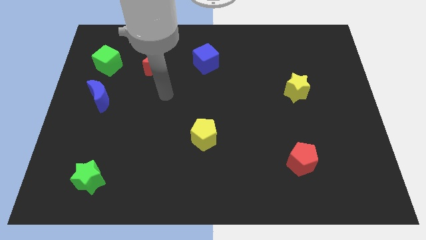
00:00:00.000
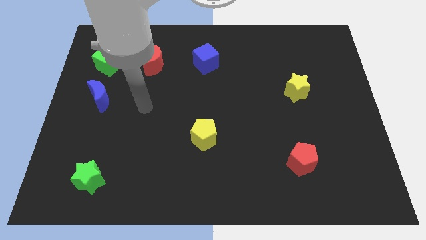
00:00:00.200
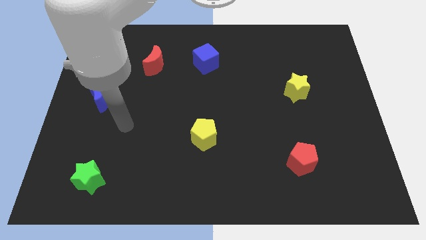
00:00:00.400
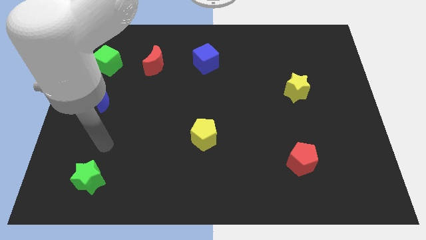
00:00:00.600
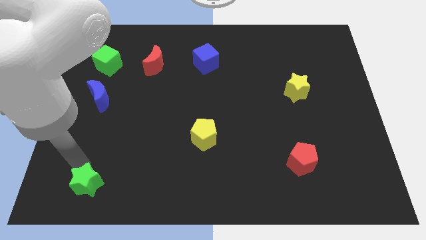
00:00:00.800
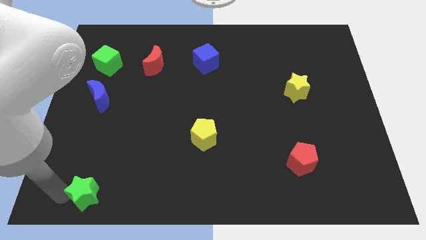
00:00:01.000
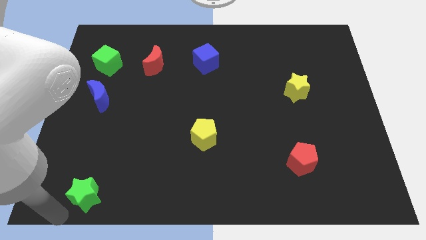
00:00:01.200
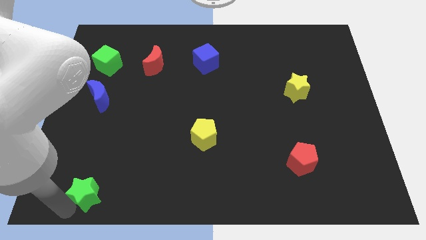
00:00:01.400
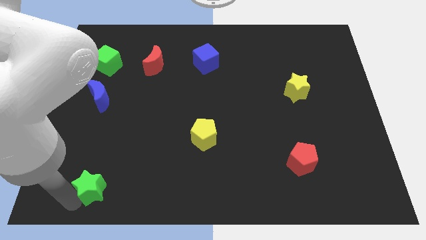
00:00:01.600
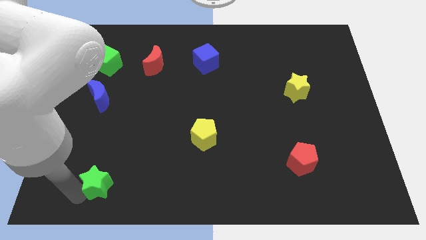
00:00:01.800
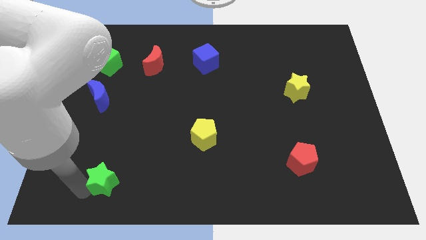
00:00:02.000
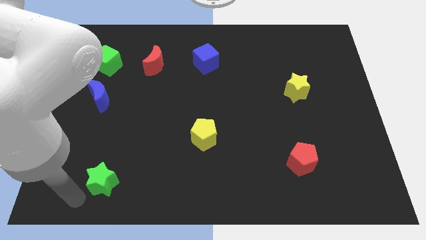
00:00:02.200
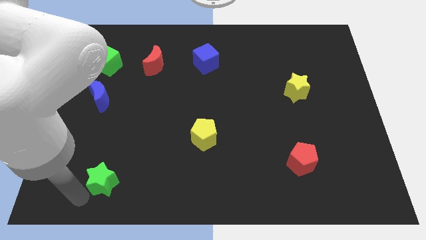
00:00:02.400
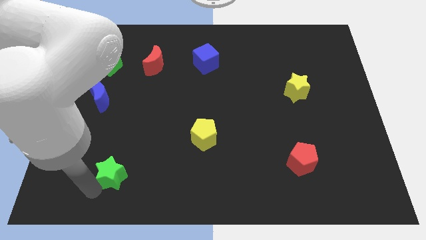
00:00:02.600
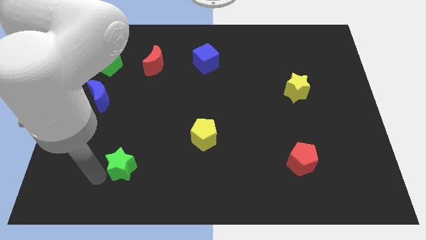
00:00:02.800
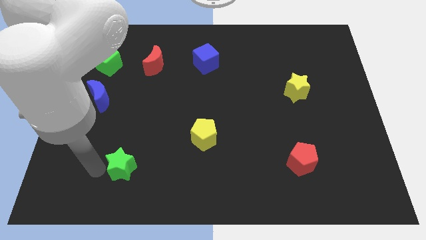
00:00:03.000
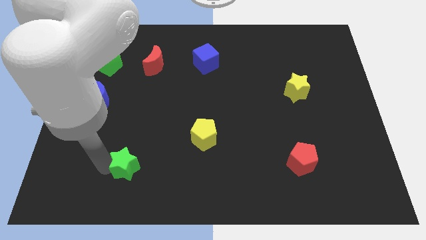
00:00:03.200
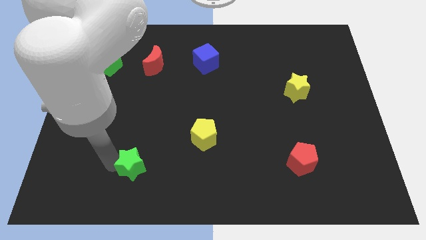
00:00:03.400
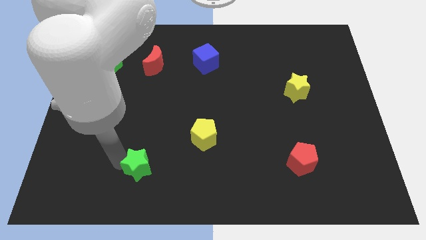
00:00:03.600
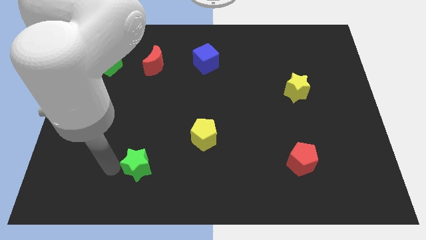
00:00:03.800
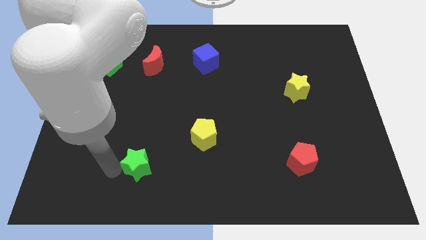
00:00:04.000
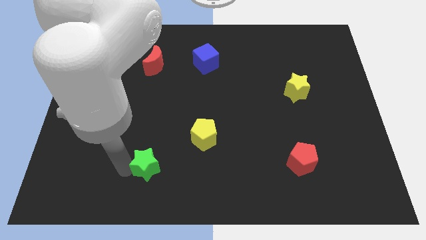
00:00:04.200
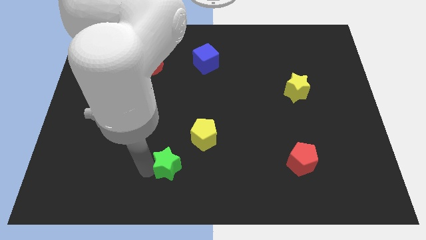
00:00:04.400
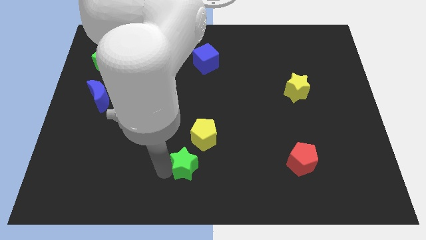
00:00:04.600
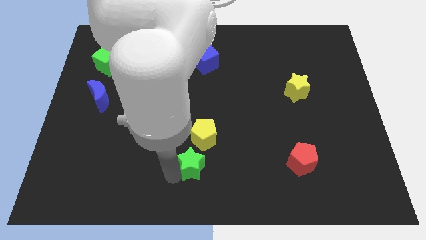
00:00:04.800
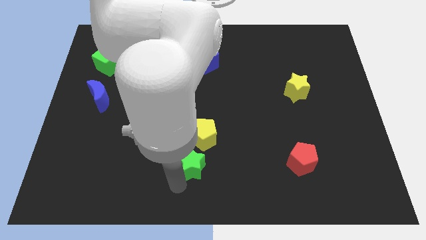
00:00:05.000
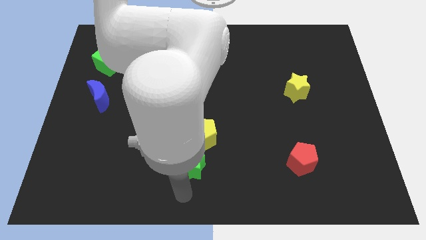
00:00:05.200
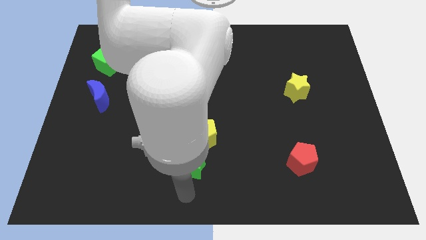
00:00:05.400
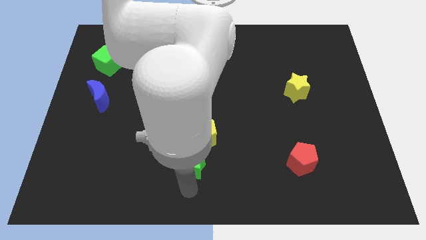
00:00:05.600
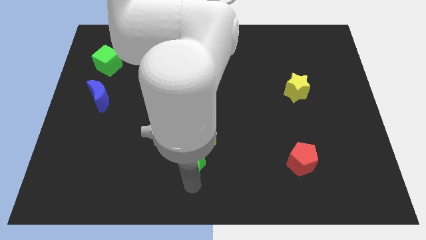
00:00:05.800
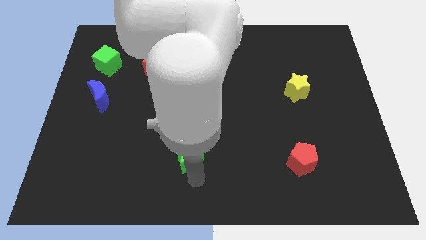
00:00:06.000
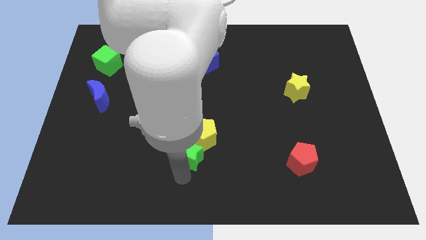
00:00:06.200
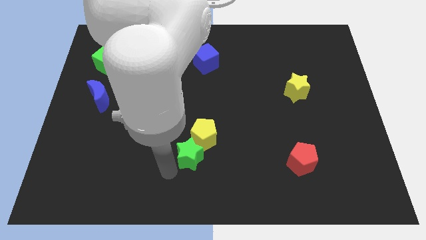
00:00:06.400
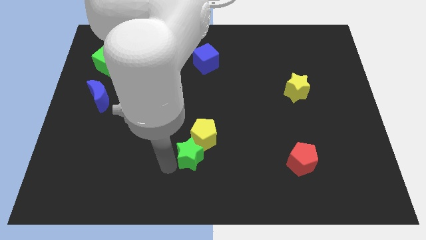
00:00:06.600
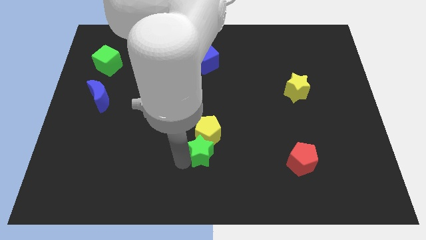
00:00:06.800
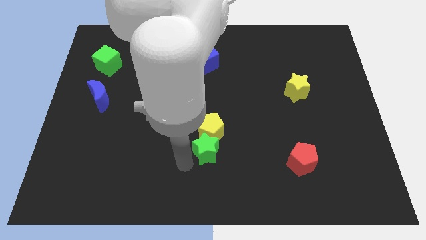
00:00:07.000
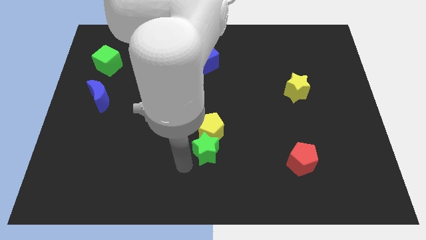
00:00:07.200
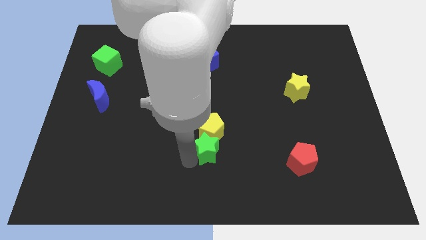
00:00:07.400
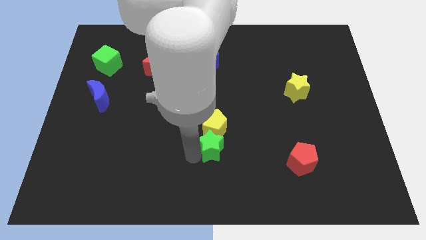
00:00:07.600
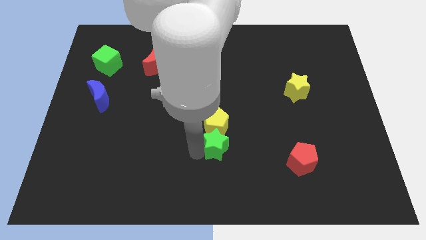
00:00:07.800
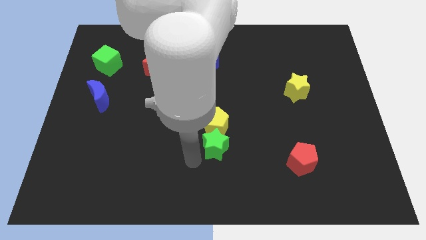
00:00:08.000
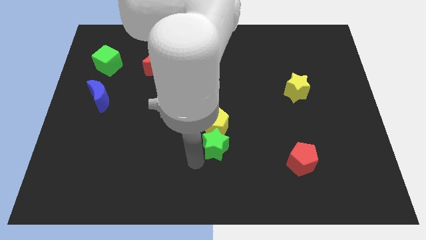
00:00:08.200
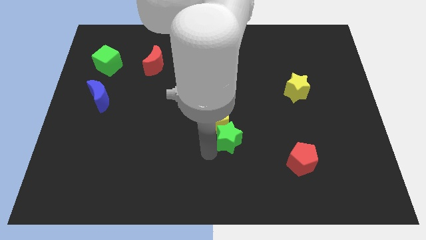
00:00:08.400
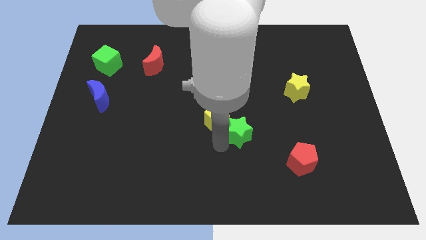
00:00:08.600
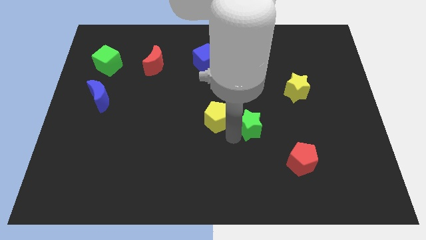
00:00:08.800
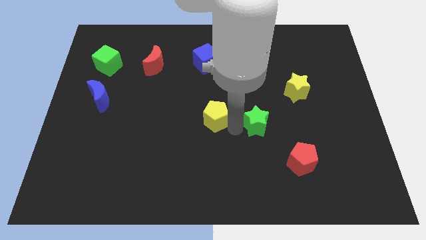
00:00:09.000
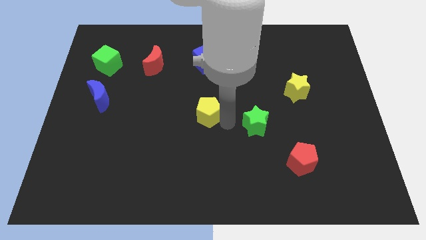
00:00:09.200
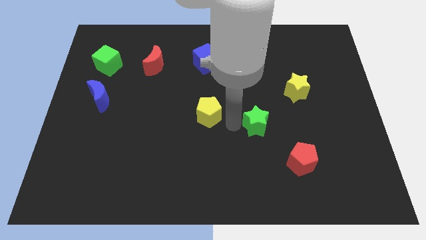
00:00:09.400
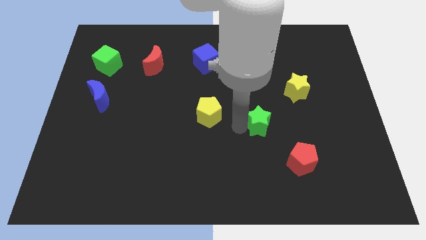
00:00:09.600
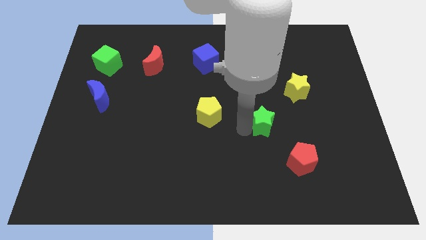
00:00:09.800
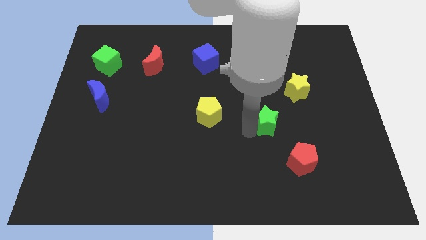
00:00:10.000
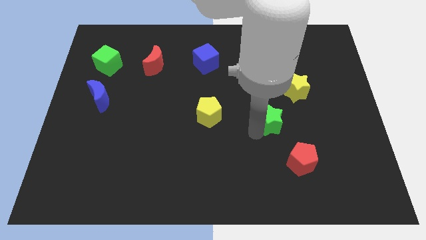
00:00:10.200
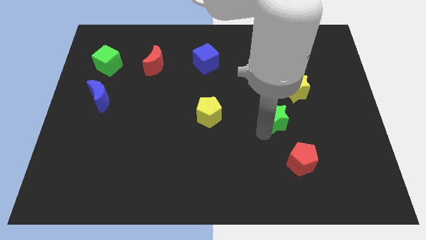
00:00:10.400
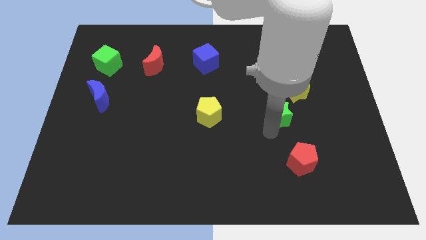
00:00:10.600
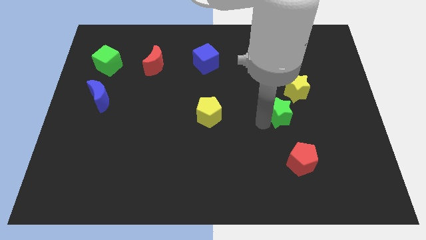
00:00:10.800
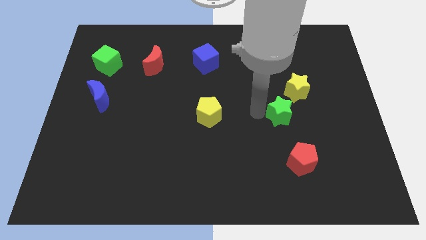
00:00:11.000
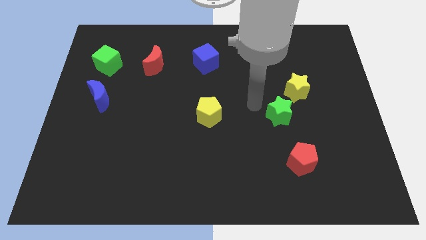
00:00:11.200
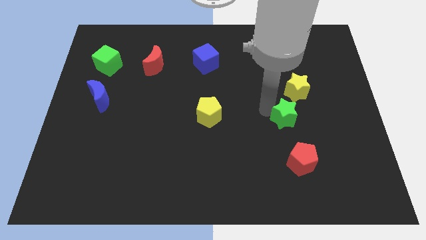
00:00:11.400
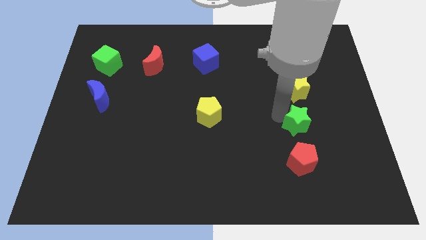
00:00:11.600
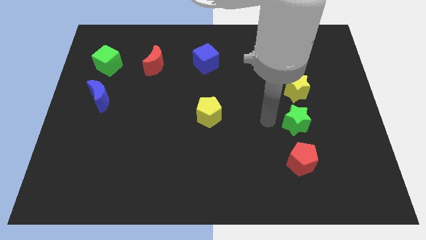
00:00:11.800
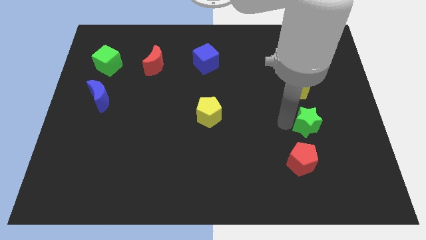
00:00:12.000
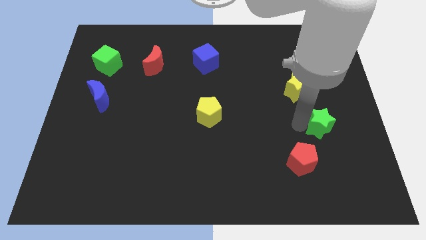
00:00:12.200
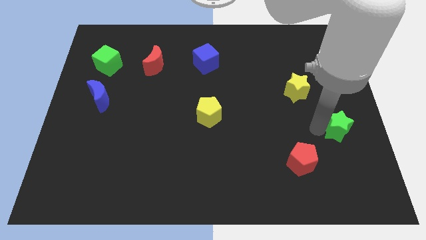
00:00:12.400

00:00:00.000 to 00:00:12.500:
push the green star to the center right

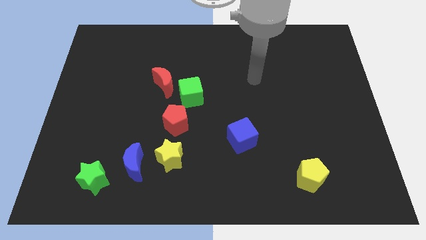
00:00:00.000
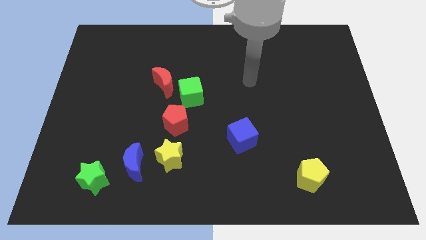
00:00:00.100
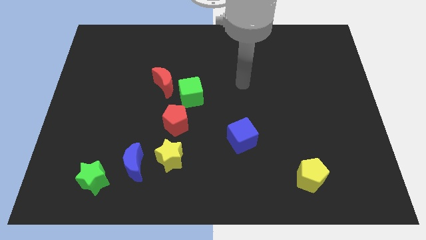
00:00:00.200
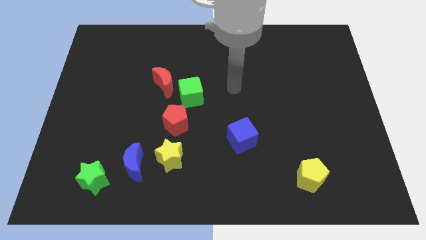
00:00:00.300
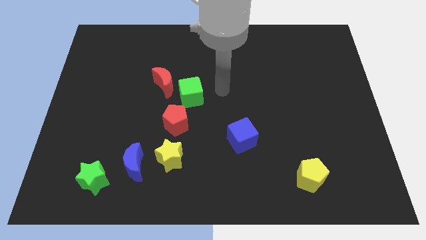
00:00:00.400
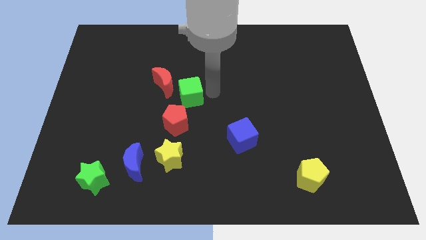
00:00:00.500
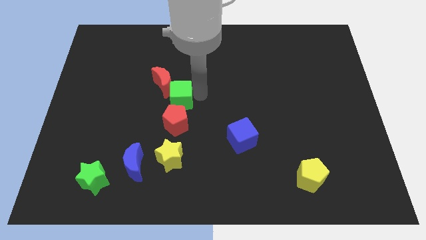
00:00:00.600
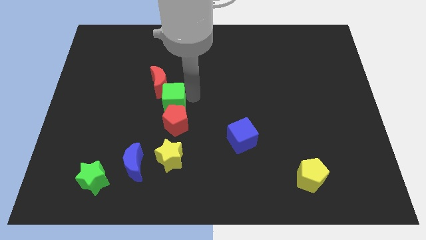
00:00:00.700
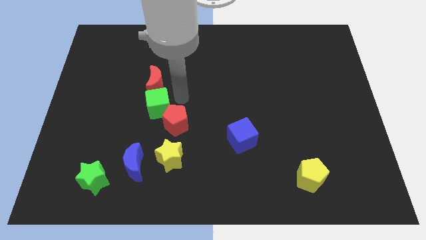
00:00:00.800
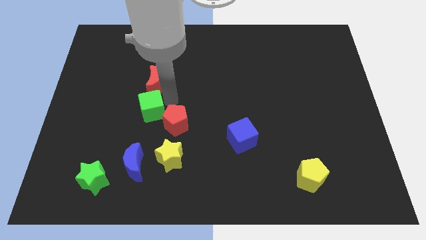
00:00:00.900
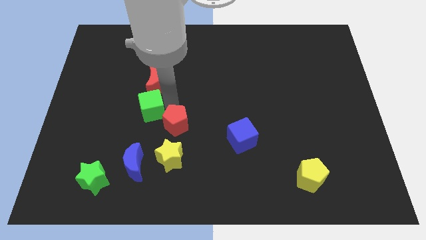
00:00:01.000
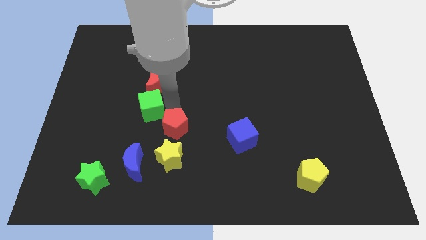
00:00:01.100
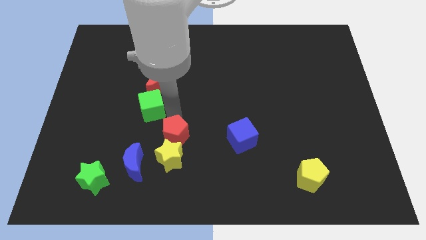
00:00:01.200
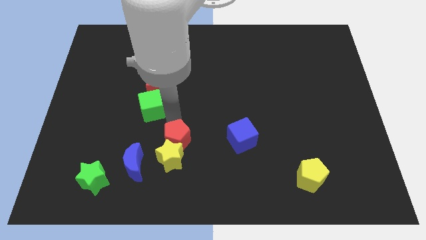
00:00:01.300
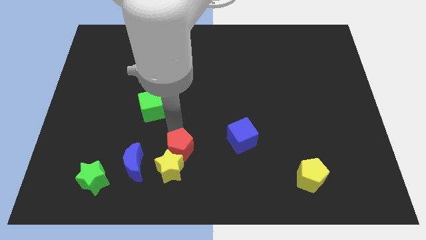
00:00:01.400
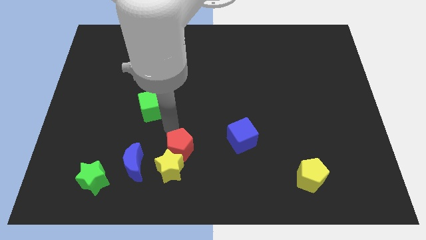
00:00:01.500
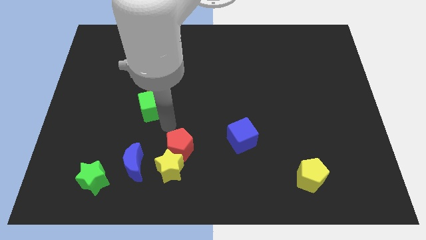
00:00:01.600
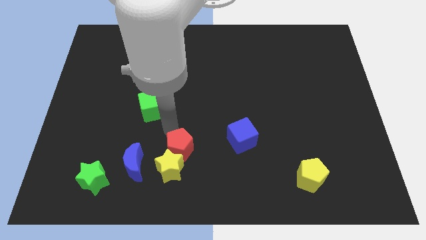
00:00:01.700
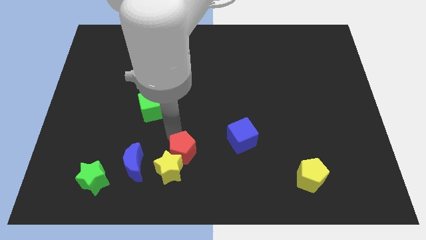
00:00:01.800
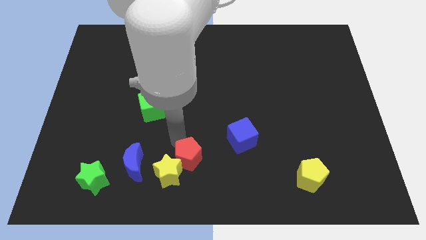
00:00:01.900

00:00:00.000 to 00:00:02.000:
put the red pentagon to the bottom
